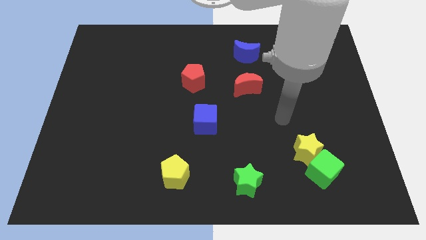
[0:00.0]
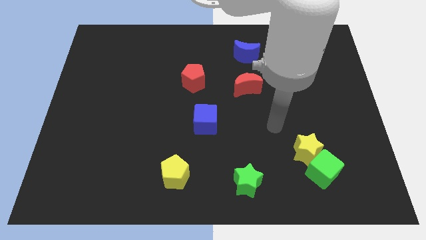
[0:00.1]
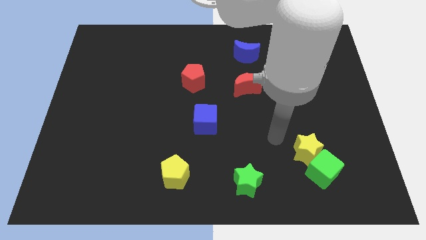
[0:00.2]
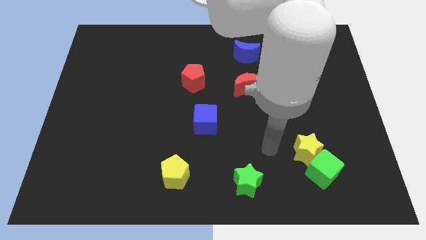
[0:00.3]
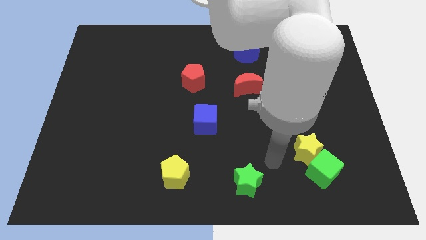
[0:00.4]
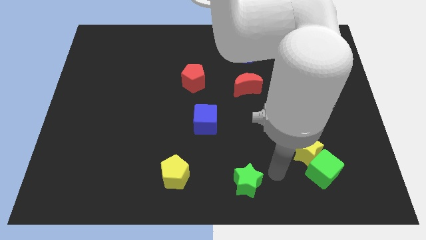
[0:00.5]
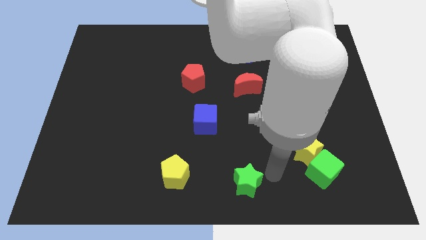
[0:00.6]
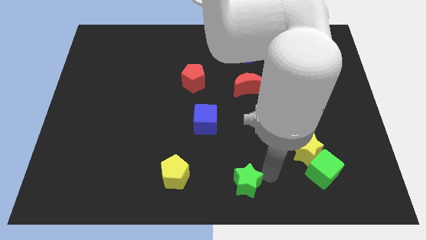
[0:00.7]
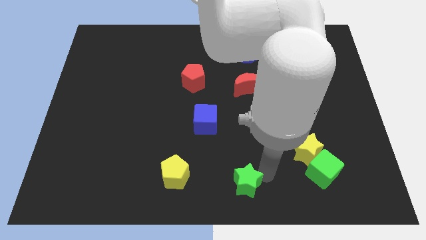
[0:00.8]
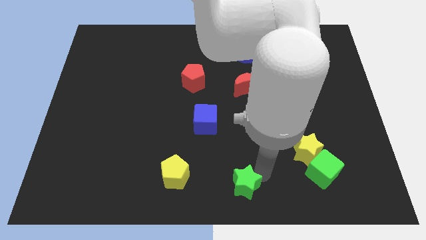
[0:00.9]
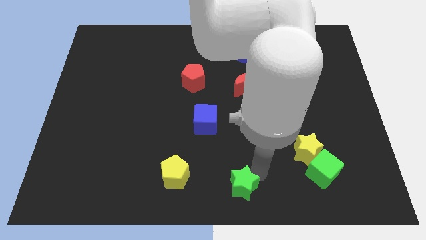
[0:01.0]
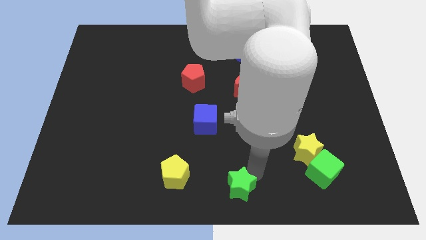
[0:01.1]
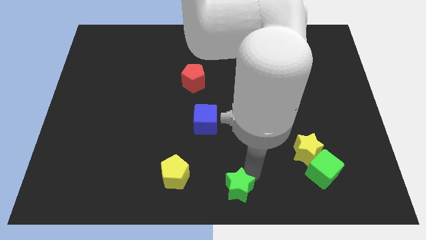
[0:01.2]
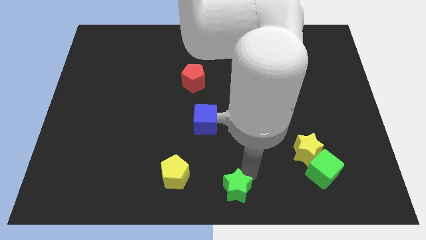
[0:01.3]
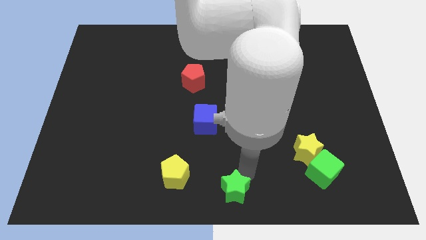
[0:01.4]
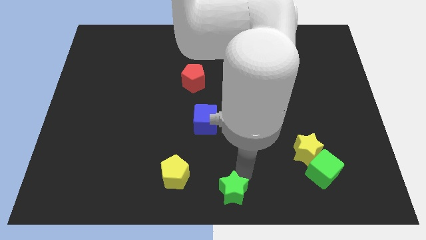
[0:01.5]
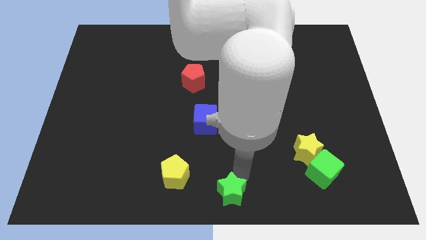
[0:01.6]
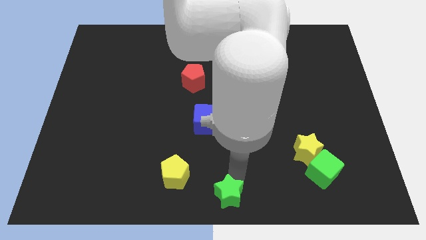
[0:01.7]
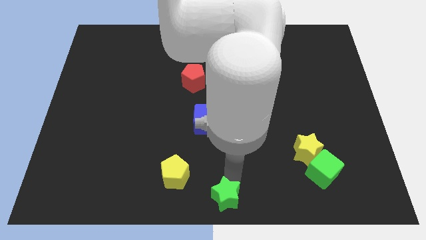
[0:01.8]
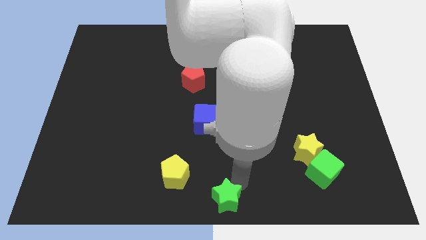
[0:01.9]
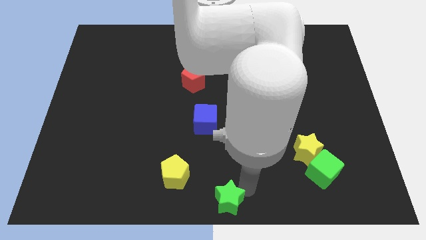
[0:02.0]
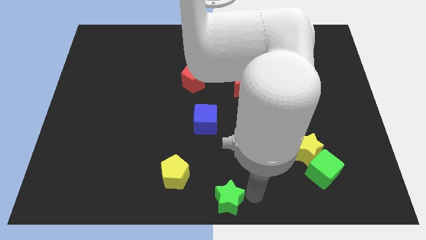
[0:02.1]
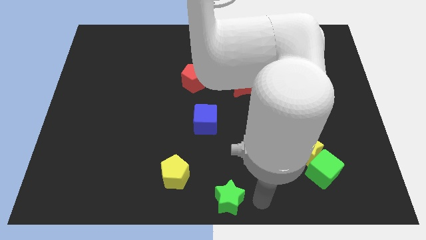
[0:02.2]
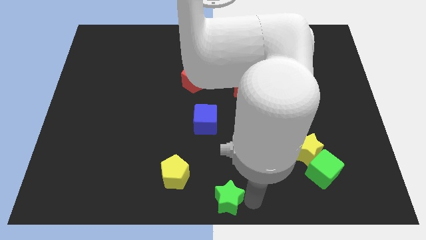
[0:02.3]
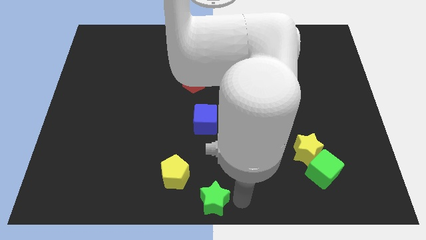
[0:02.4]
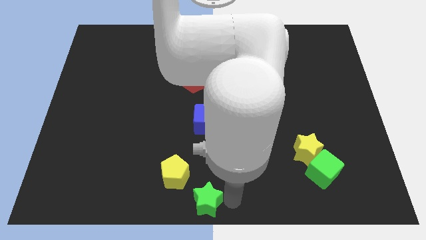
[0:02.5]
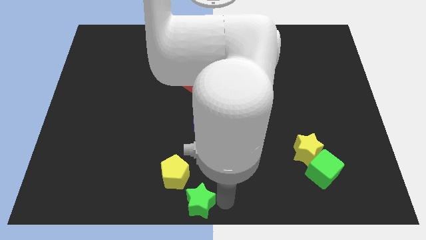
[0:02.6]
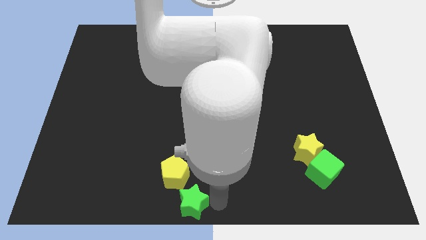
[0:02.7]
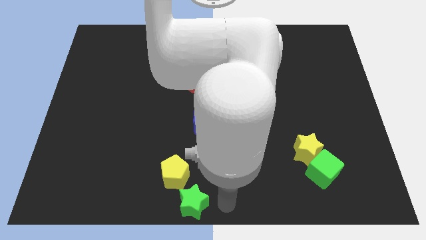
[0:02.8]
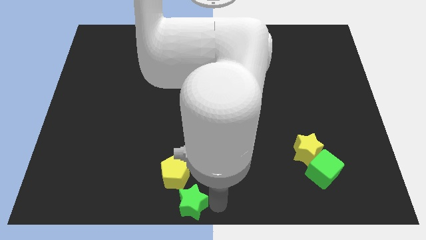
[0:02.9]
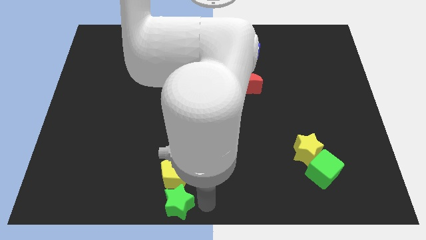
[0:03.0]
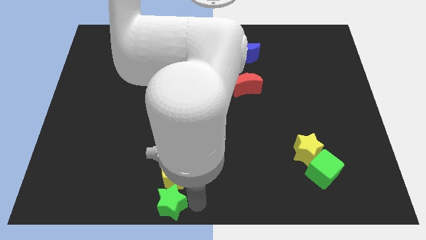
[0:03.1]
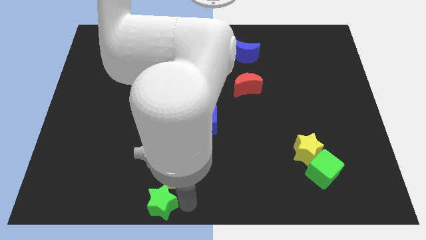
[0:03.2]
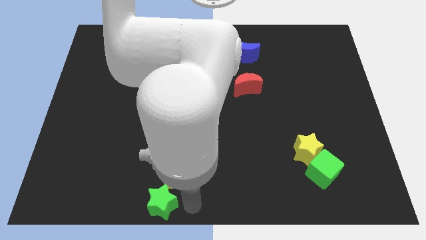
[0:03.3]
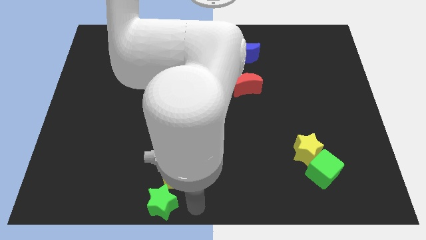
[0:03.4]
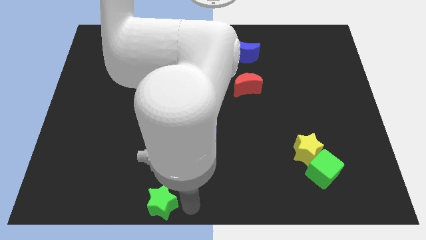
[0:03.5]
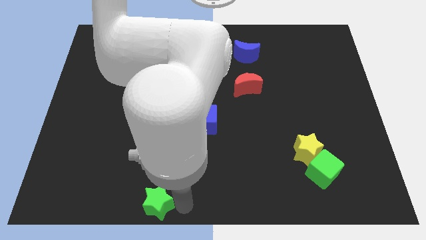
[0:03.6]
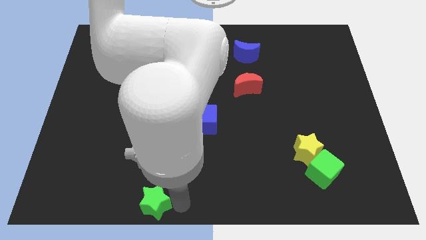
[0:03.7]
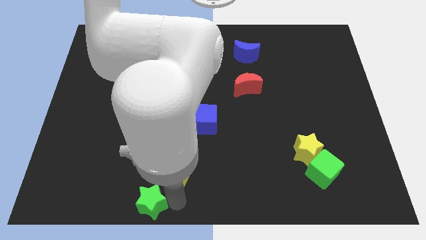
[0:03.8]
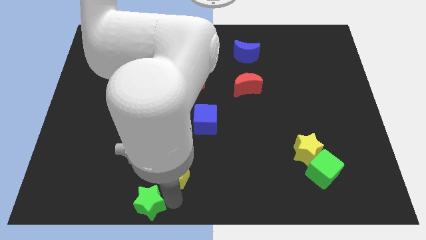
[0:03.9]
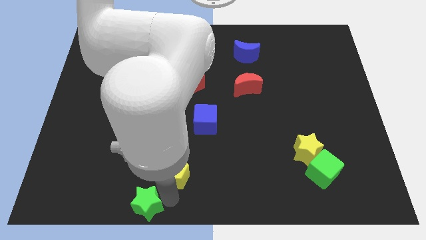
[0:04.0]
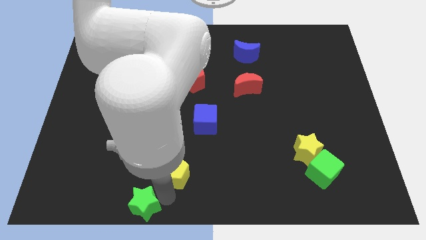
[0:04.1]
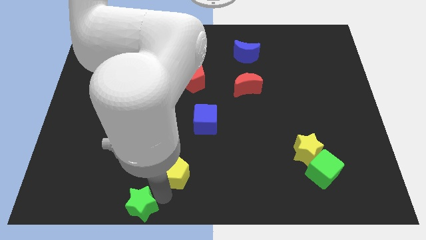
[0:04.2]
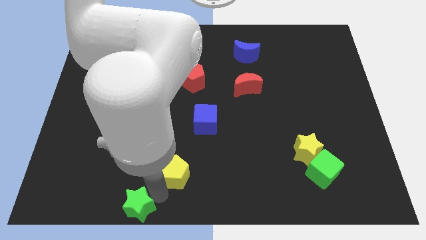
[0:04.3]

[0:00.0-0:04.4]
slide the green star left

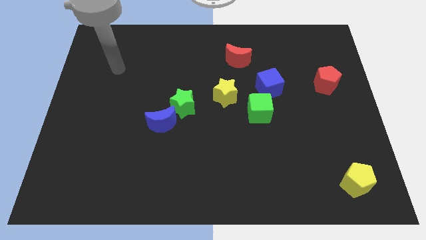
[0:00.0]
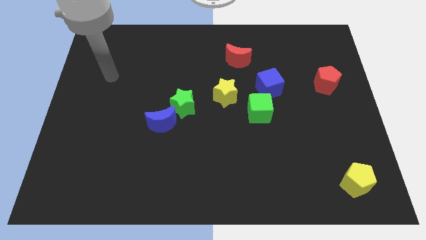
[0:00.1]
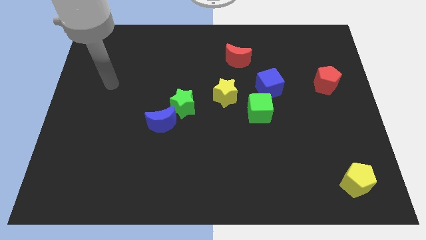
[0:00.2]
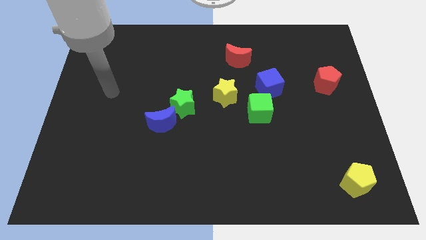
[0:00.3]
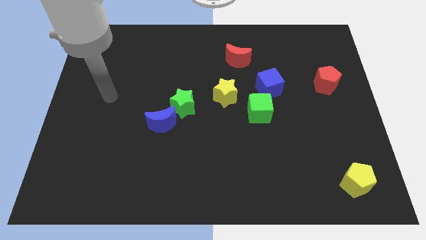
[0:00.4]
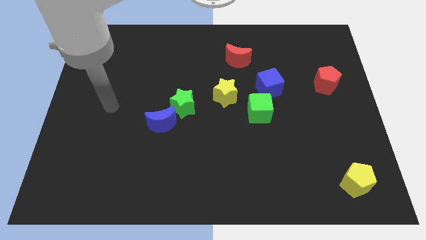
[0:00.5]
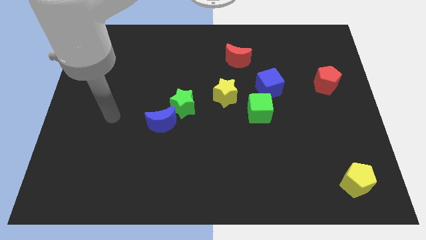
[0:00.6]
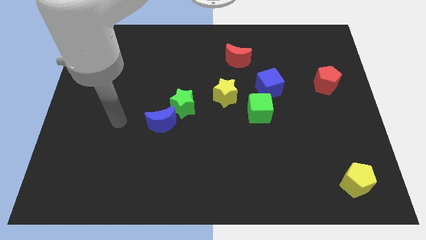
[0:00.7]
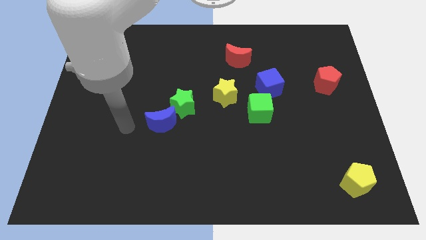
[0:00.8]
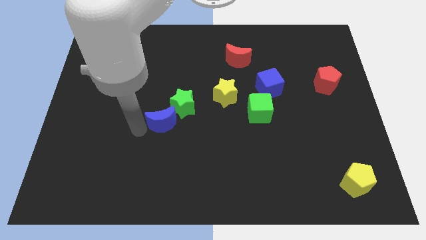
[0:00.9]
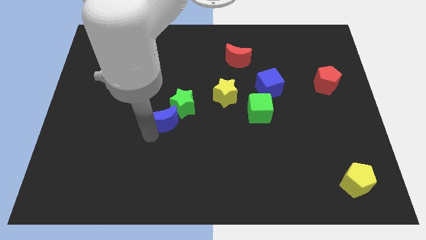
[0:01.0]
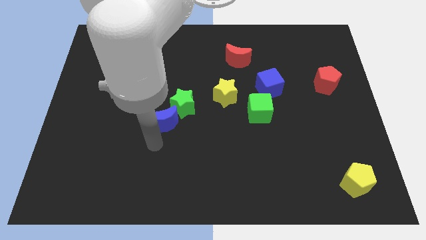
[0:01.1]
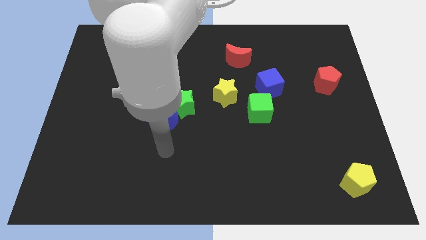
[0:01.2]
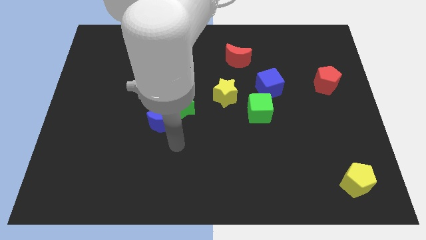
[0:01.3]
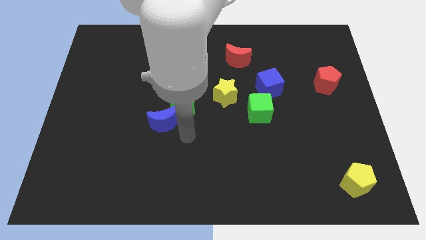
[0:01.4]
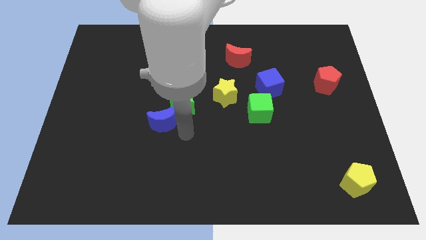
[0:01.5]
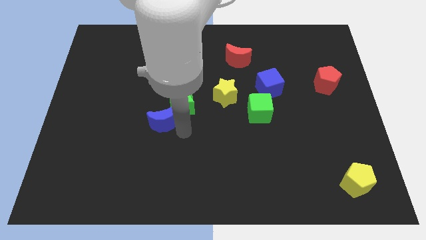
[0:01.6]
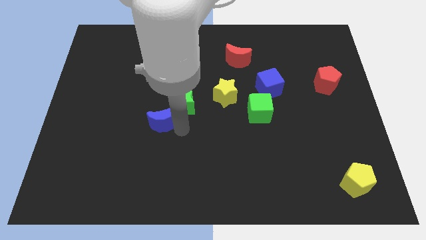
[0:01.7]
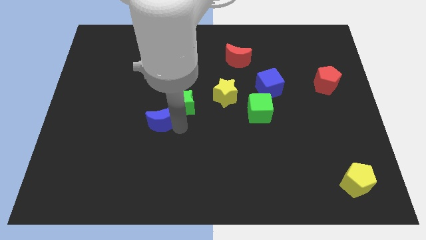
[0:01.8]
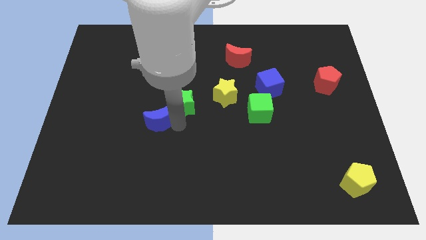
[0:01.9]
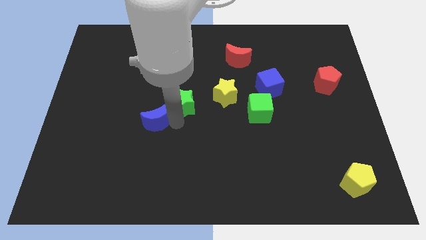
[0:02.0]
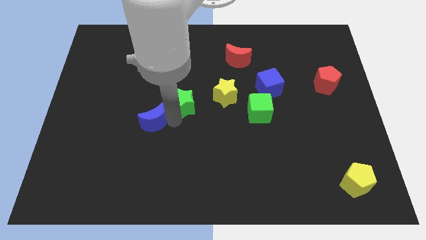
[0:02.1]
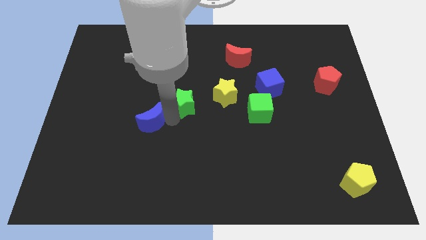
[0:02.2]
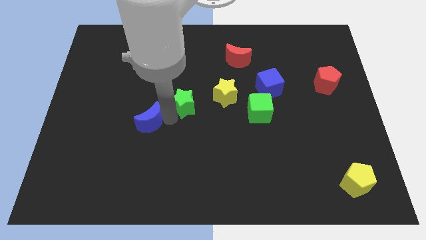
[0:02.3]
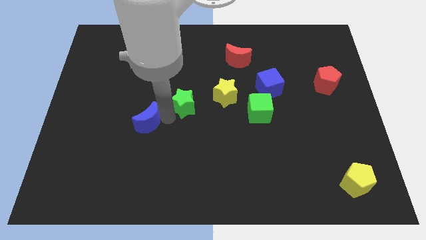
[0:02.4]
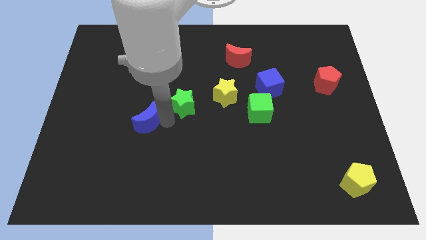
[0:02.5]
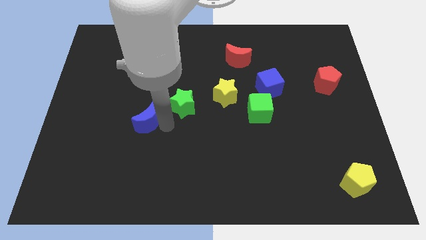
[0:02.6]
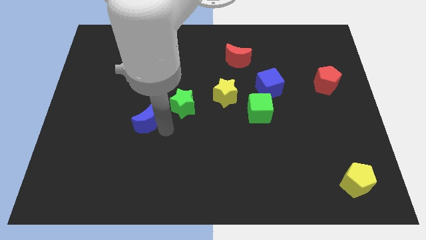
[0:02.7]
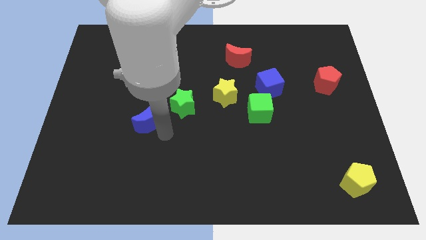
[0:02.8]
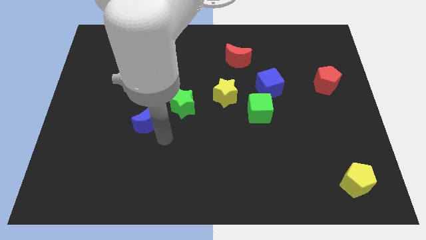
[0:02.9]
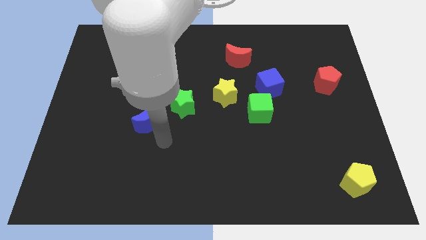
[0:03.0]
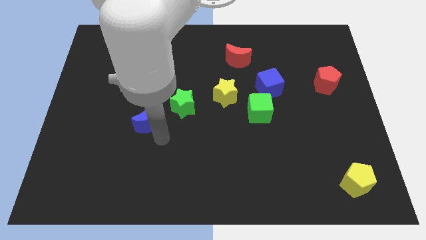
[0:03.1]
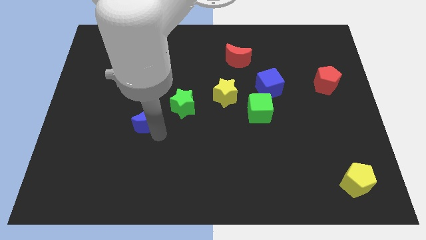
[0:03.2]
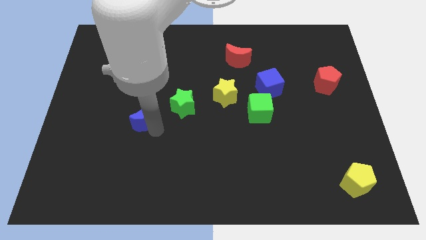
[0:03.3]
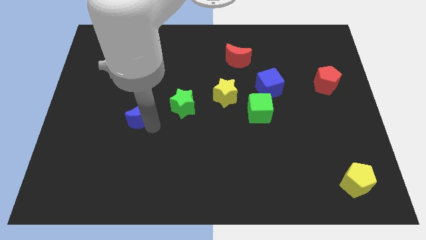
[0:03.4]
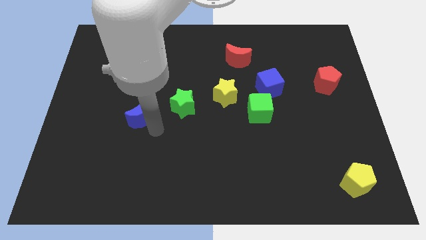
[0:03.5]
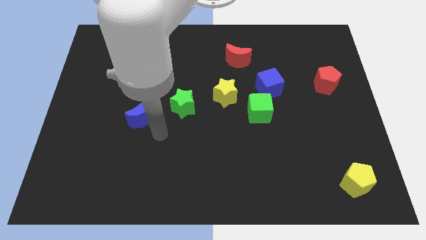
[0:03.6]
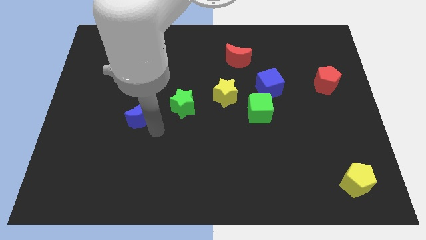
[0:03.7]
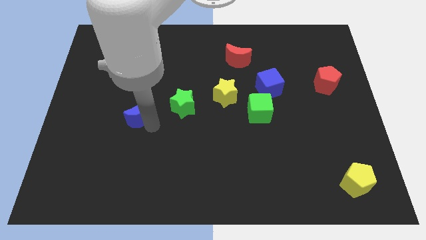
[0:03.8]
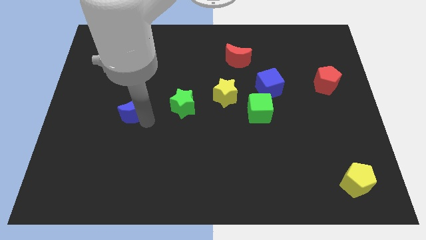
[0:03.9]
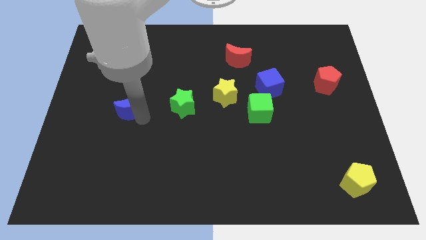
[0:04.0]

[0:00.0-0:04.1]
push the blue moon a bit upwards and to the left diagonally
